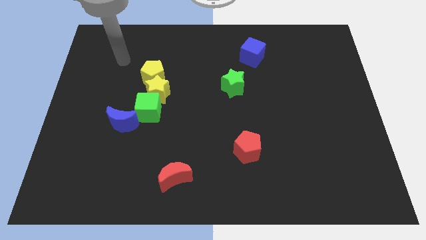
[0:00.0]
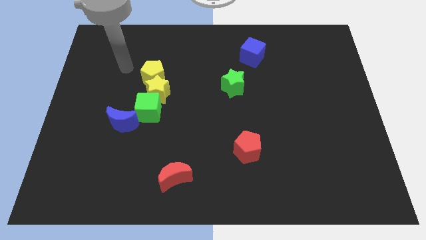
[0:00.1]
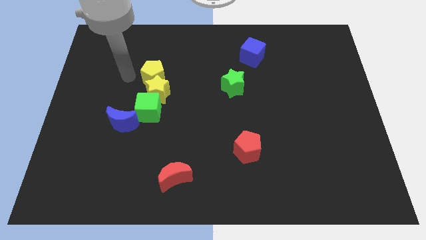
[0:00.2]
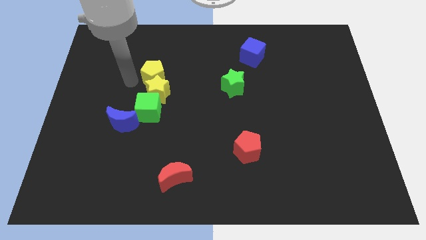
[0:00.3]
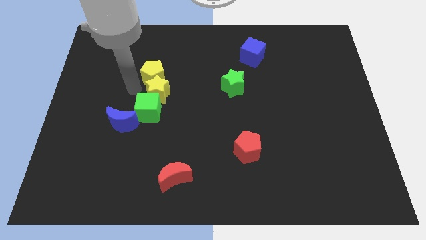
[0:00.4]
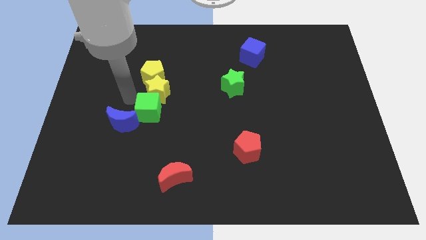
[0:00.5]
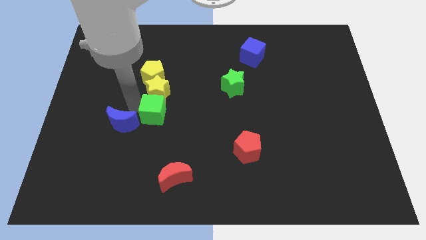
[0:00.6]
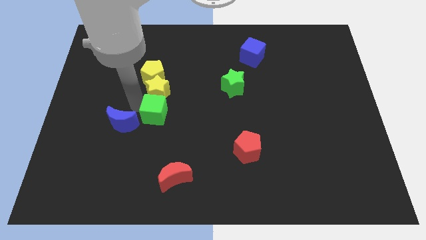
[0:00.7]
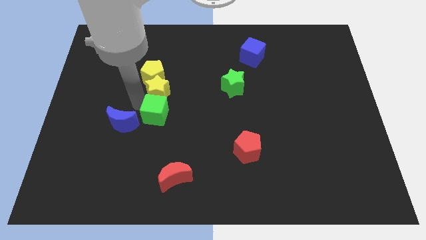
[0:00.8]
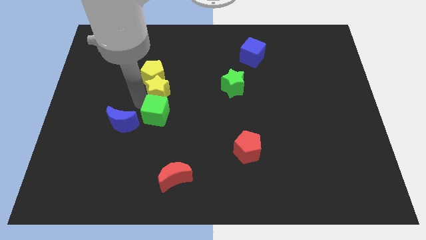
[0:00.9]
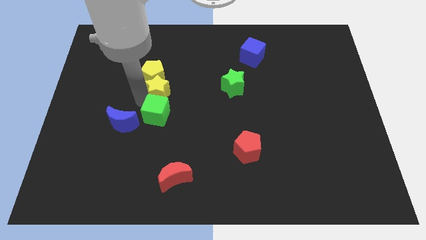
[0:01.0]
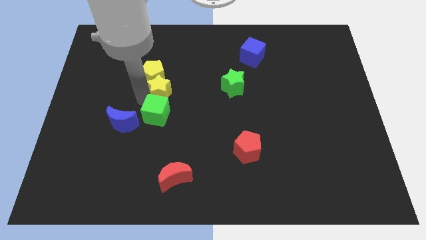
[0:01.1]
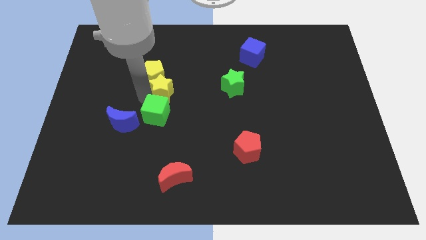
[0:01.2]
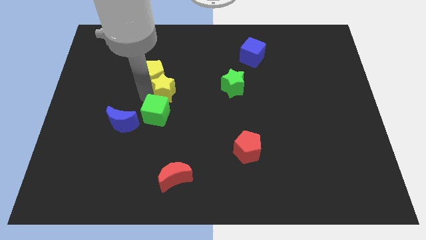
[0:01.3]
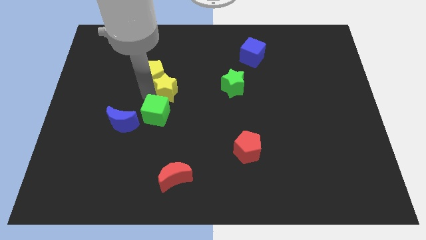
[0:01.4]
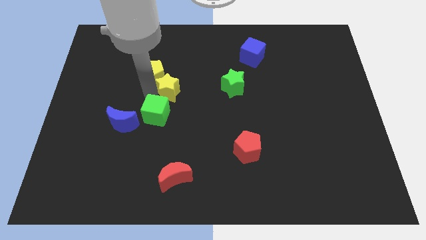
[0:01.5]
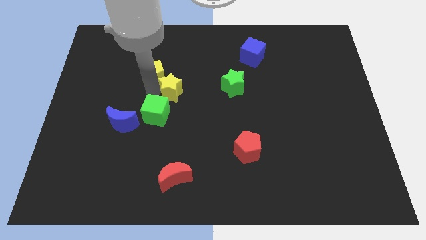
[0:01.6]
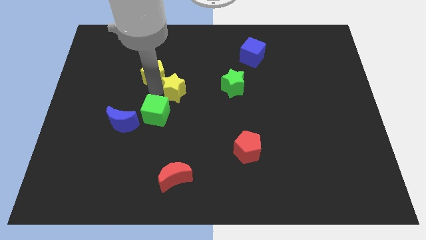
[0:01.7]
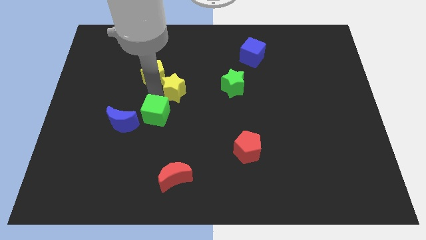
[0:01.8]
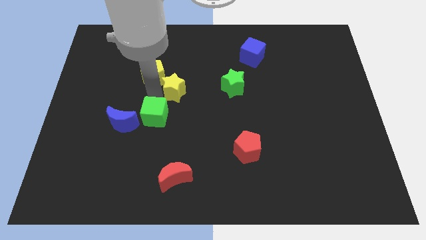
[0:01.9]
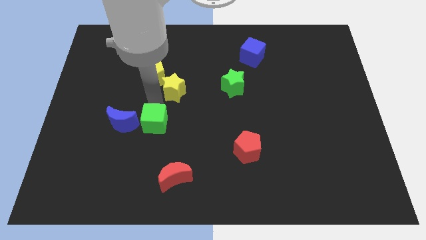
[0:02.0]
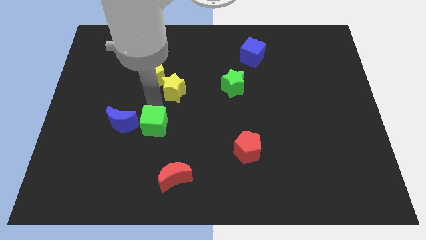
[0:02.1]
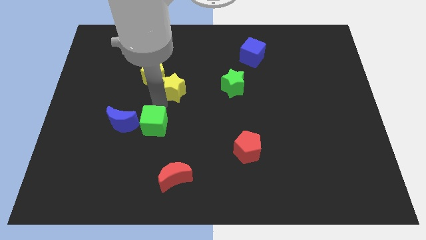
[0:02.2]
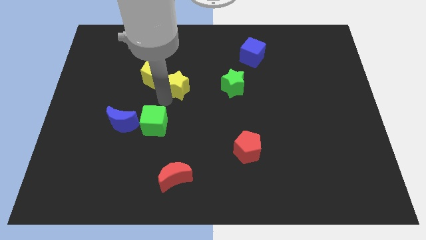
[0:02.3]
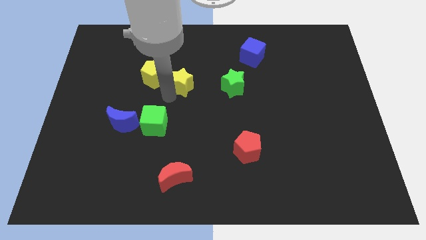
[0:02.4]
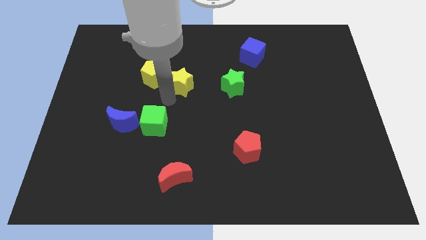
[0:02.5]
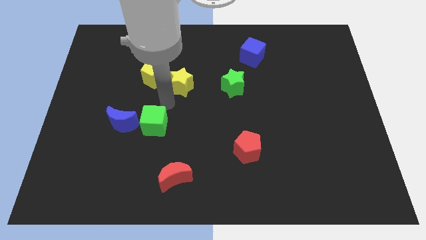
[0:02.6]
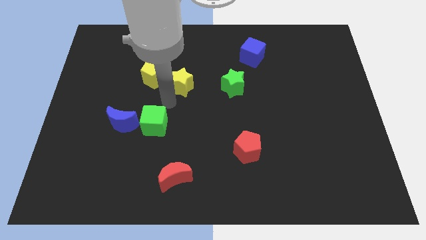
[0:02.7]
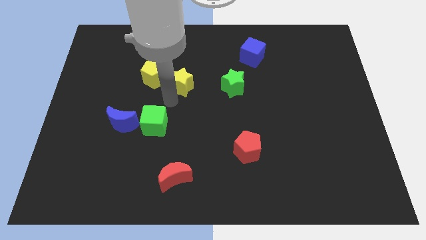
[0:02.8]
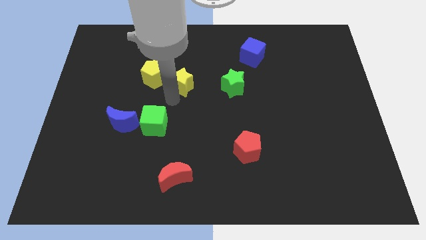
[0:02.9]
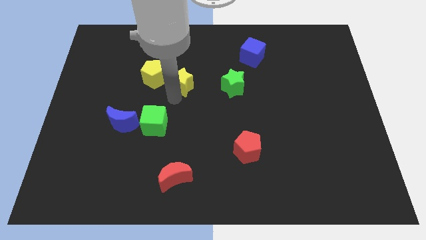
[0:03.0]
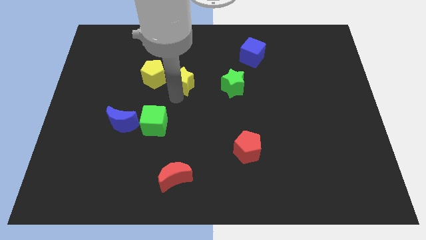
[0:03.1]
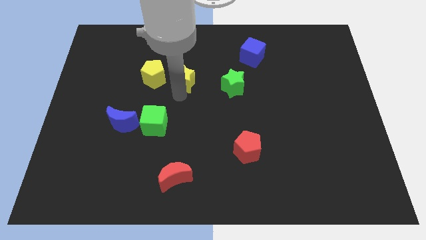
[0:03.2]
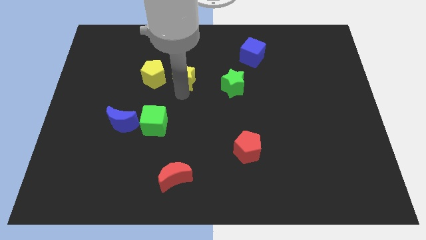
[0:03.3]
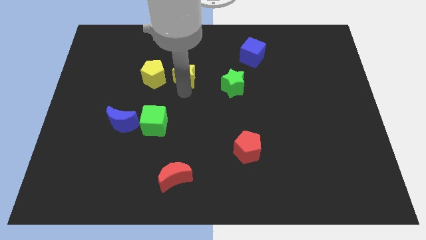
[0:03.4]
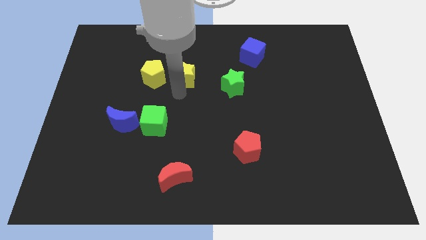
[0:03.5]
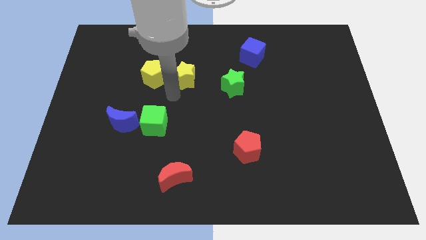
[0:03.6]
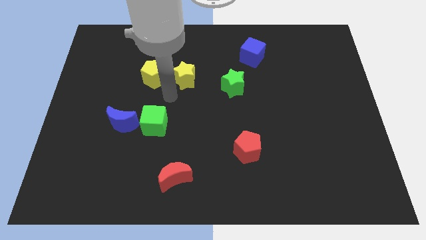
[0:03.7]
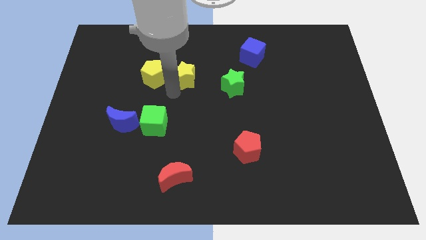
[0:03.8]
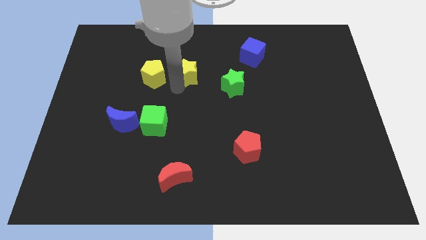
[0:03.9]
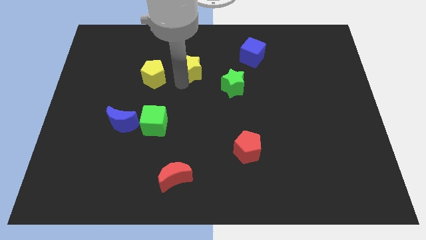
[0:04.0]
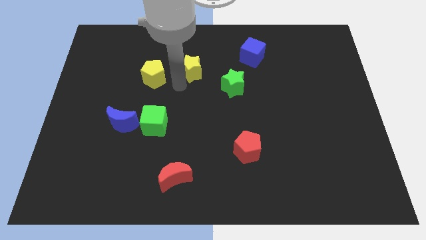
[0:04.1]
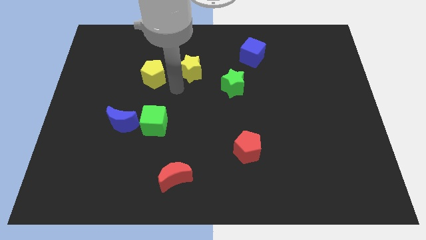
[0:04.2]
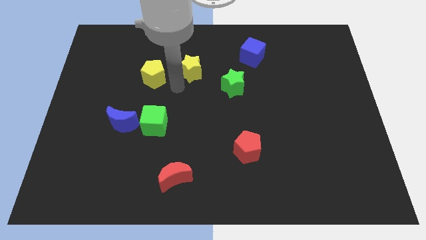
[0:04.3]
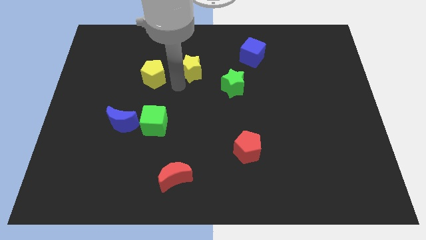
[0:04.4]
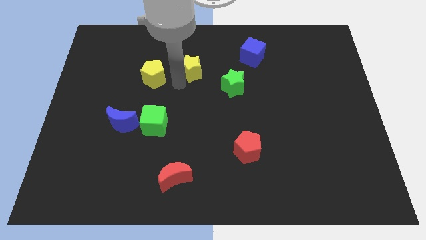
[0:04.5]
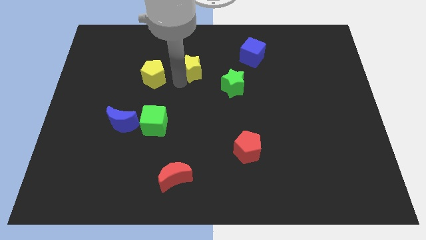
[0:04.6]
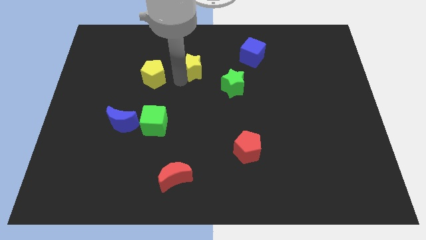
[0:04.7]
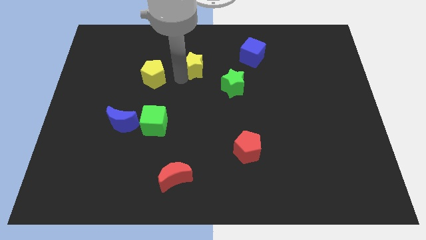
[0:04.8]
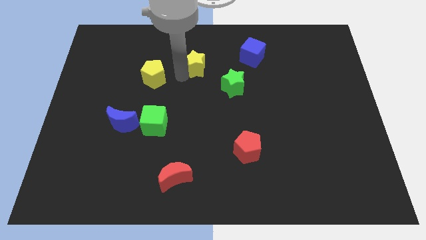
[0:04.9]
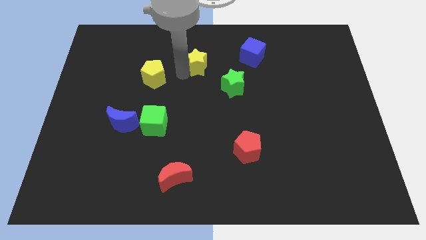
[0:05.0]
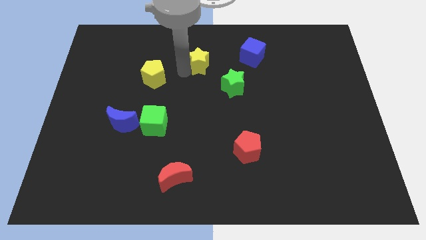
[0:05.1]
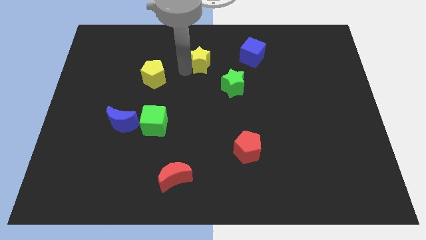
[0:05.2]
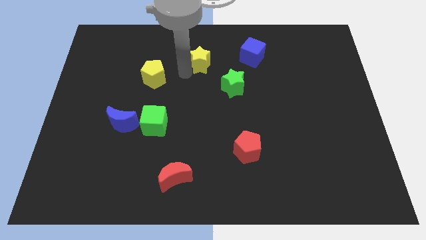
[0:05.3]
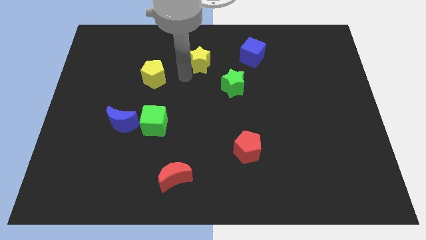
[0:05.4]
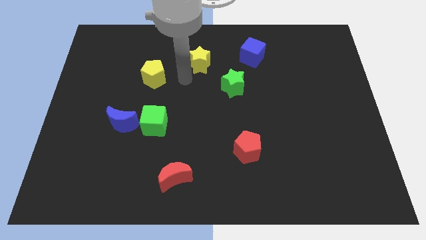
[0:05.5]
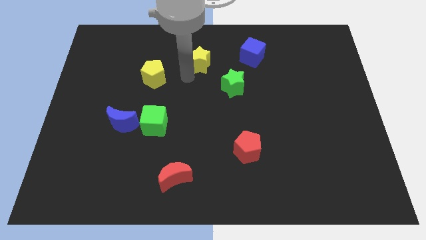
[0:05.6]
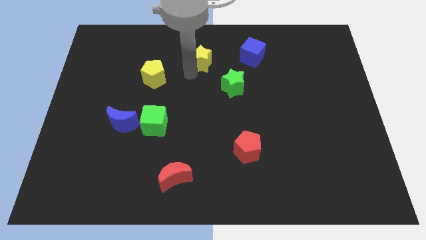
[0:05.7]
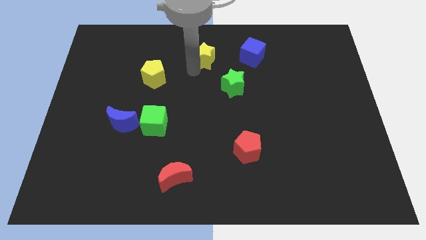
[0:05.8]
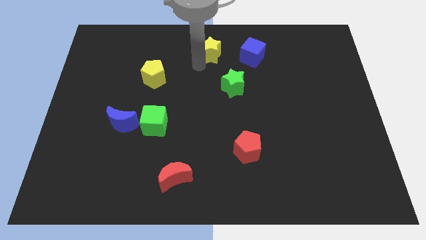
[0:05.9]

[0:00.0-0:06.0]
put the yellow star to the top

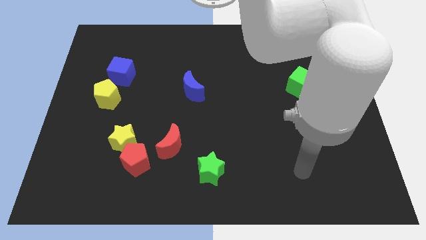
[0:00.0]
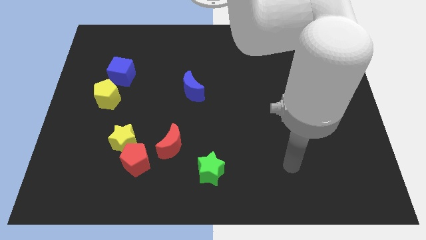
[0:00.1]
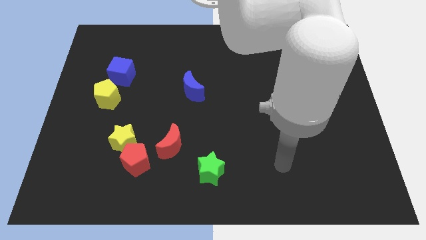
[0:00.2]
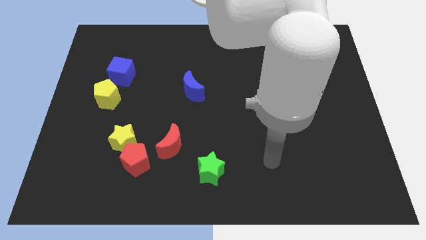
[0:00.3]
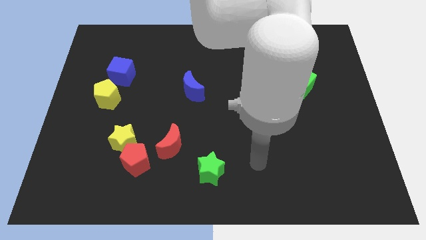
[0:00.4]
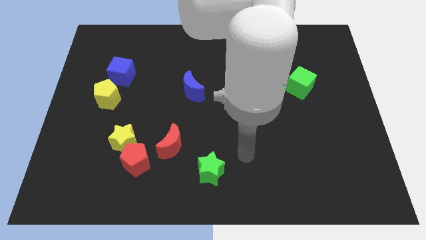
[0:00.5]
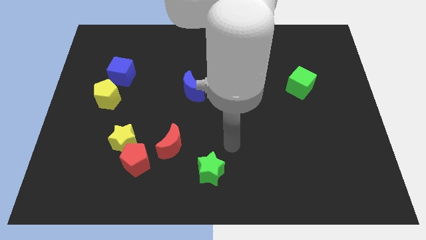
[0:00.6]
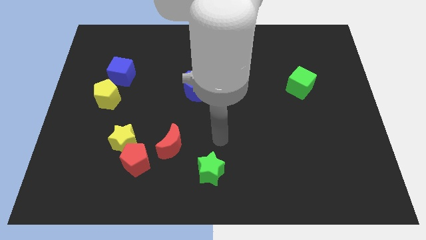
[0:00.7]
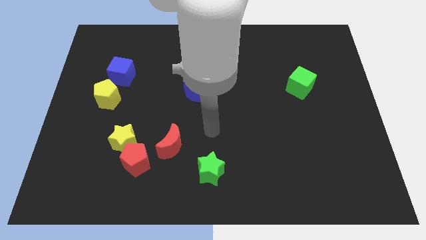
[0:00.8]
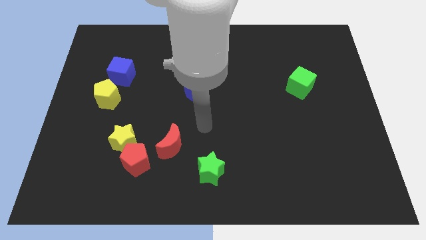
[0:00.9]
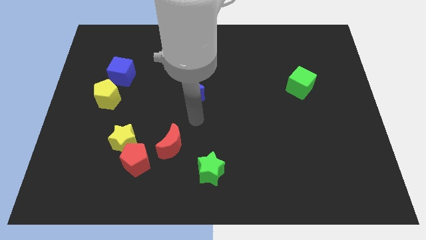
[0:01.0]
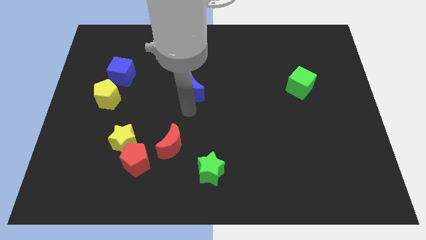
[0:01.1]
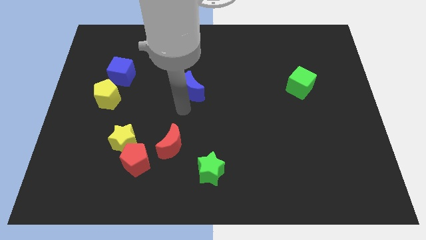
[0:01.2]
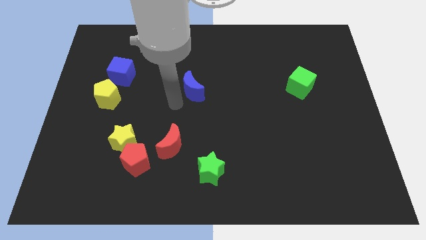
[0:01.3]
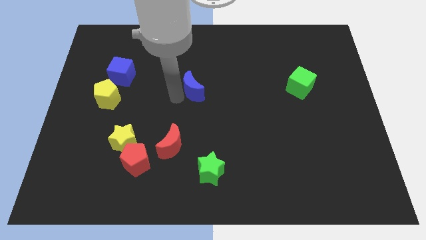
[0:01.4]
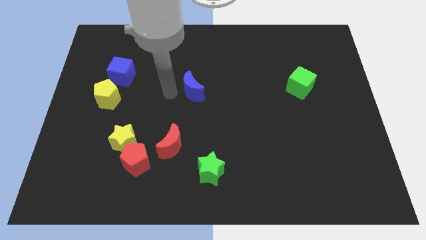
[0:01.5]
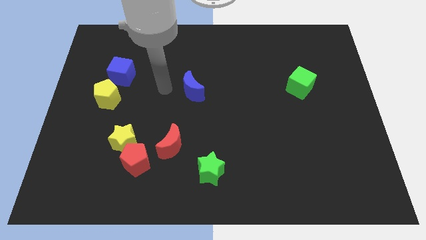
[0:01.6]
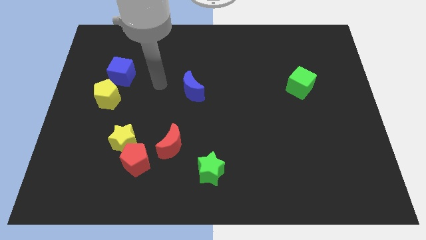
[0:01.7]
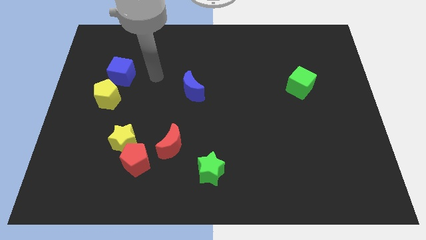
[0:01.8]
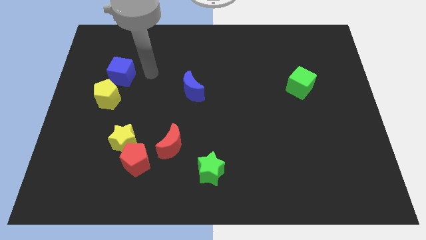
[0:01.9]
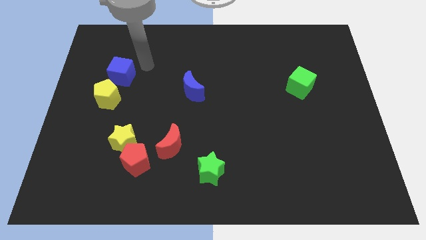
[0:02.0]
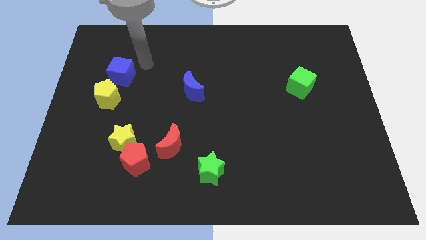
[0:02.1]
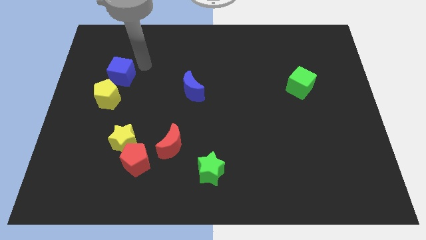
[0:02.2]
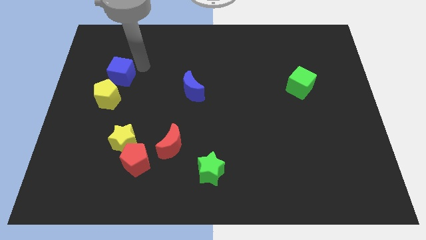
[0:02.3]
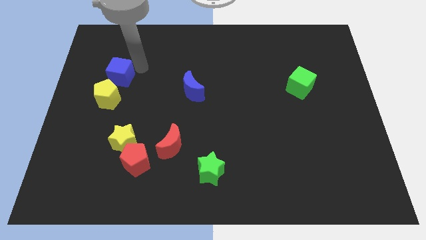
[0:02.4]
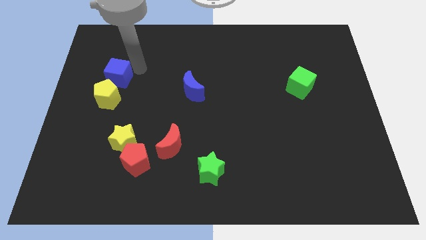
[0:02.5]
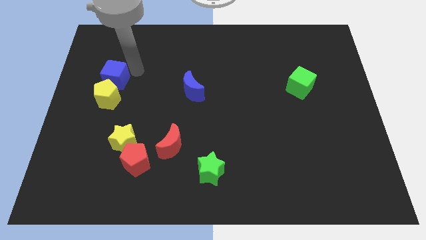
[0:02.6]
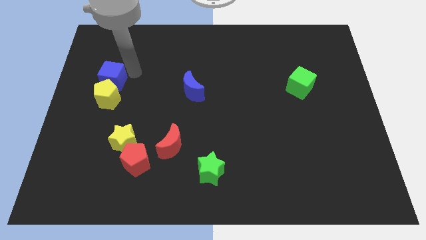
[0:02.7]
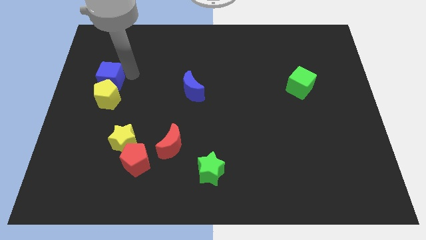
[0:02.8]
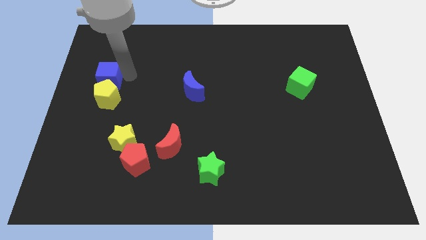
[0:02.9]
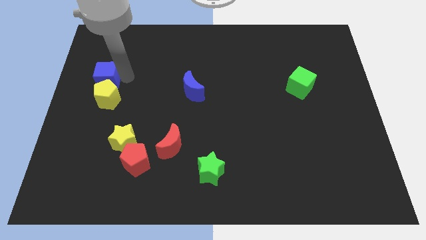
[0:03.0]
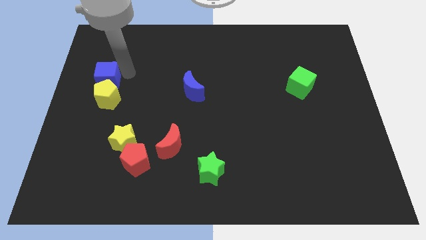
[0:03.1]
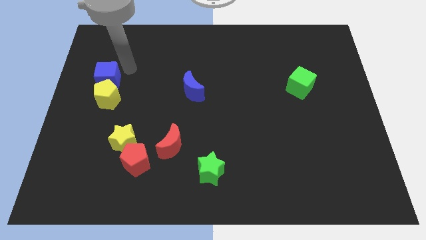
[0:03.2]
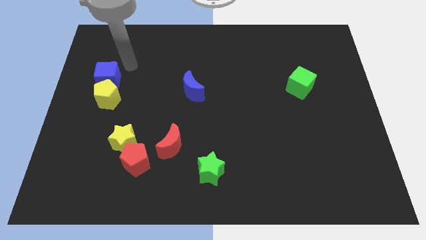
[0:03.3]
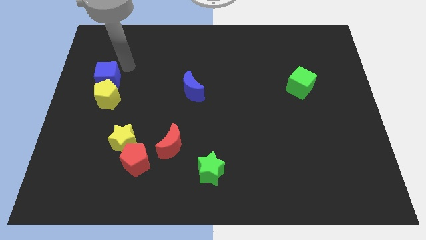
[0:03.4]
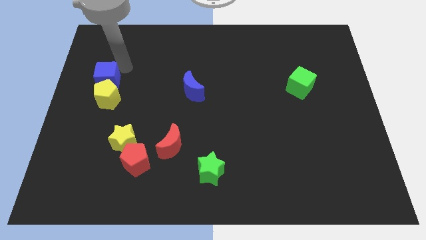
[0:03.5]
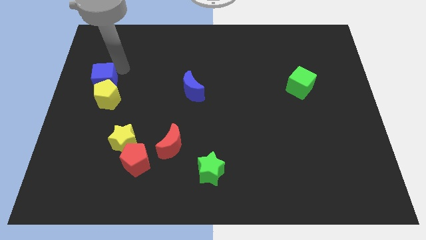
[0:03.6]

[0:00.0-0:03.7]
move the blue cube to the left side
